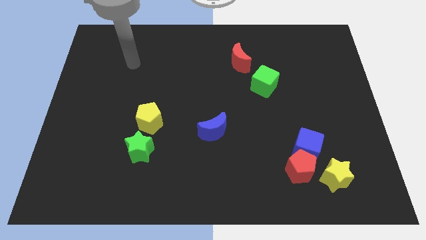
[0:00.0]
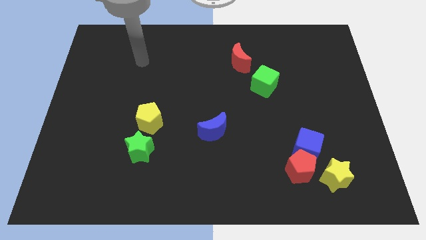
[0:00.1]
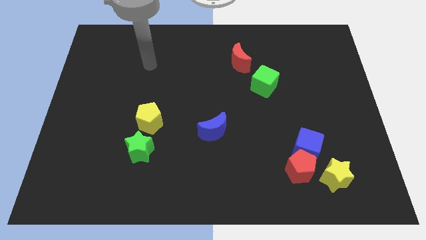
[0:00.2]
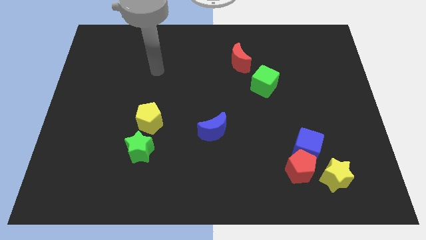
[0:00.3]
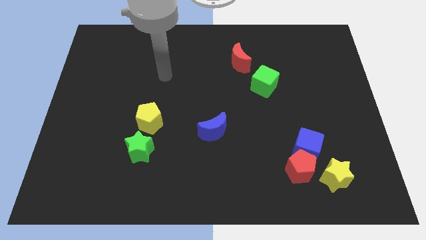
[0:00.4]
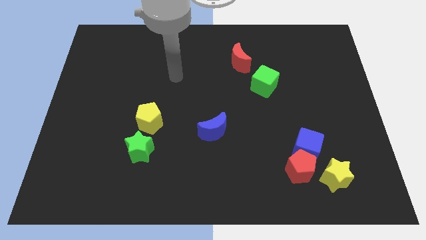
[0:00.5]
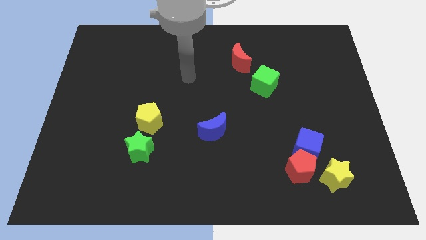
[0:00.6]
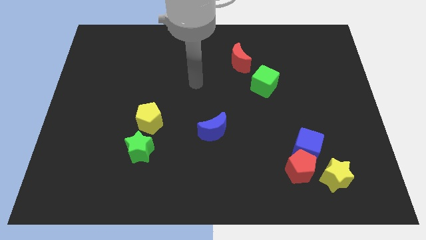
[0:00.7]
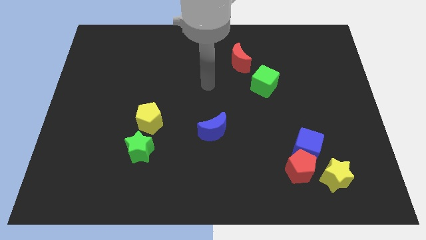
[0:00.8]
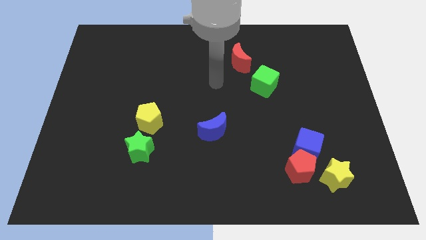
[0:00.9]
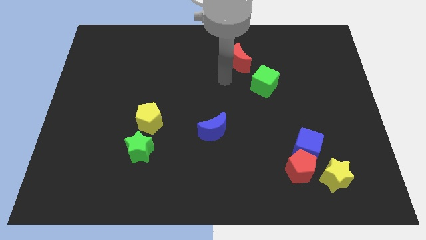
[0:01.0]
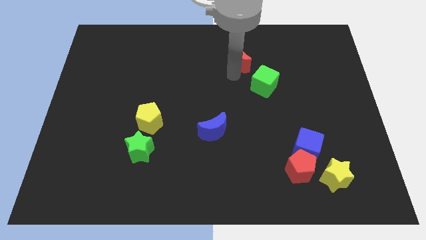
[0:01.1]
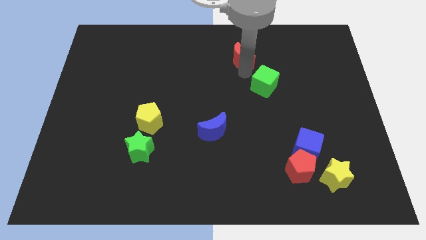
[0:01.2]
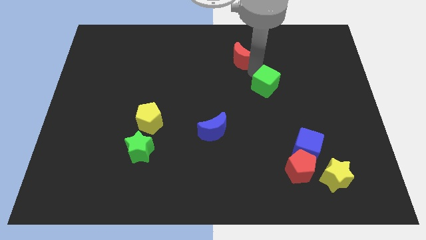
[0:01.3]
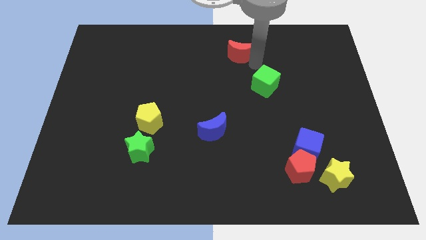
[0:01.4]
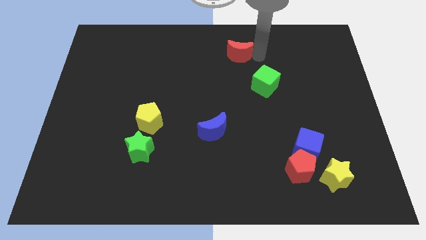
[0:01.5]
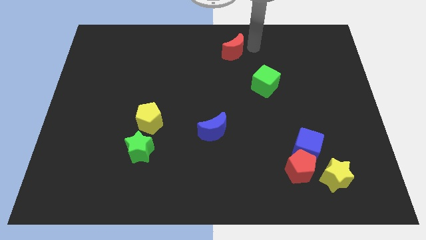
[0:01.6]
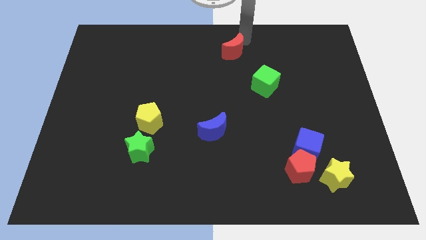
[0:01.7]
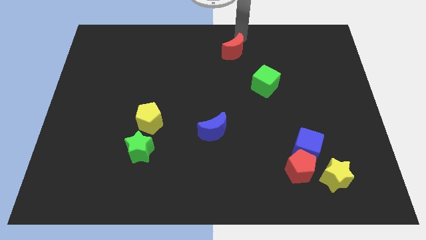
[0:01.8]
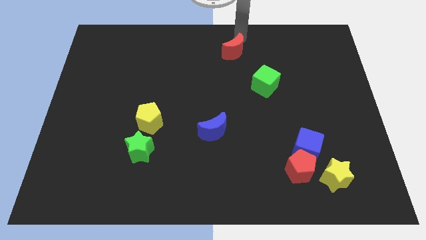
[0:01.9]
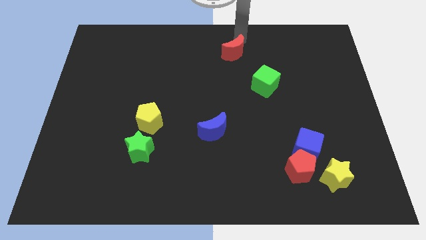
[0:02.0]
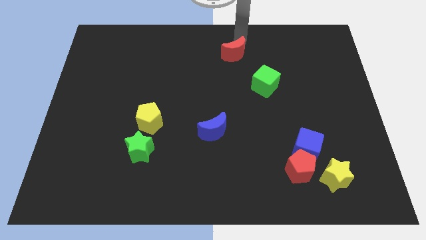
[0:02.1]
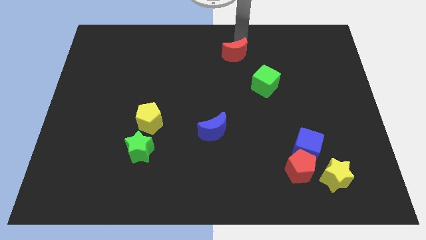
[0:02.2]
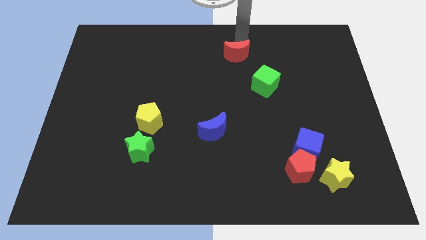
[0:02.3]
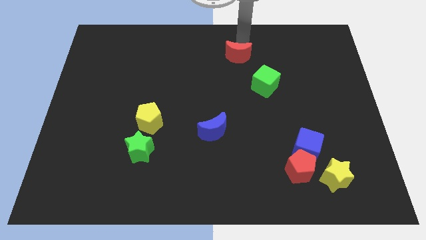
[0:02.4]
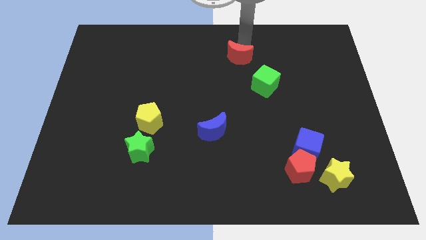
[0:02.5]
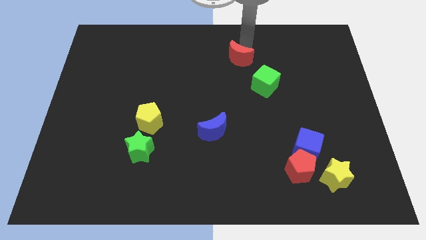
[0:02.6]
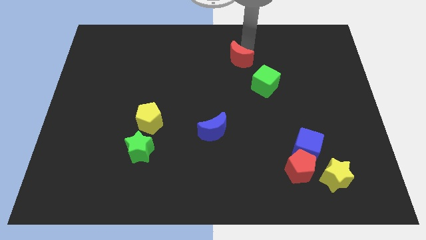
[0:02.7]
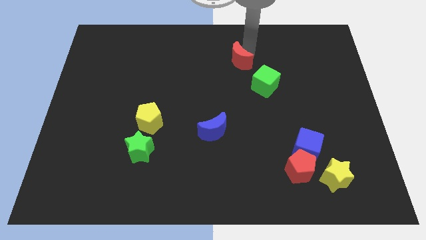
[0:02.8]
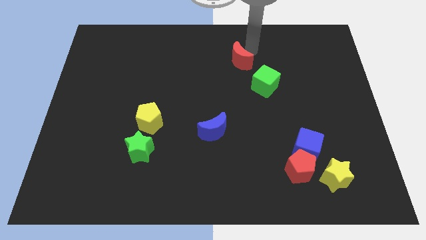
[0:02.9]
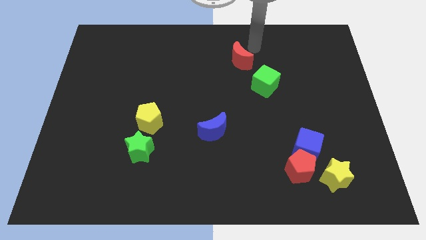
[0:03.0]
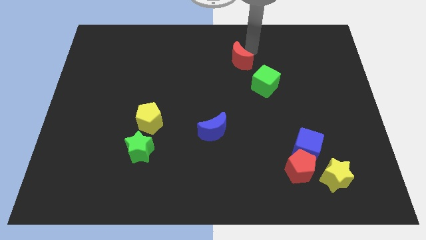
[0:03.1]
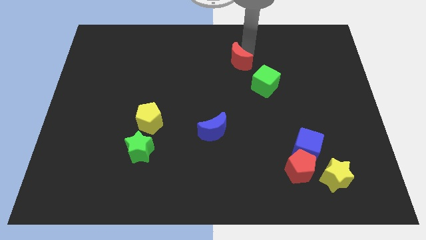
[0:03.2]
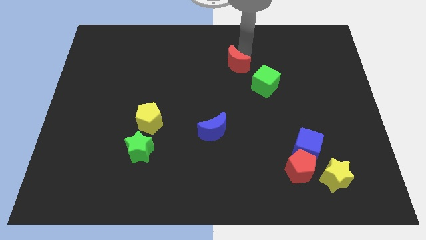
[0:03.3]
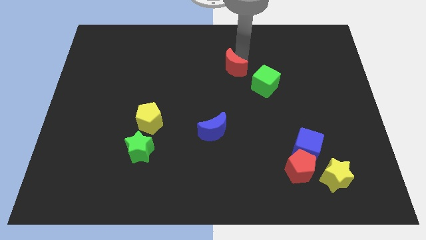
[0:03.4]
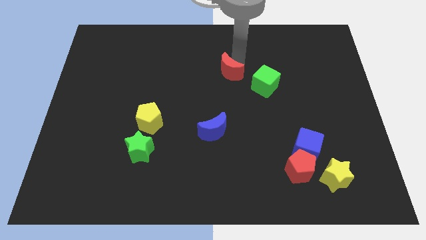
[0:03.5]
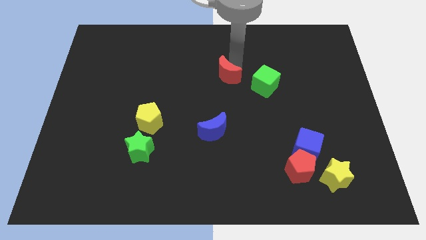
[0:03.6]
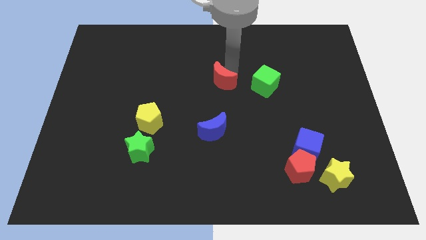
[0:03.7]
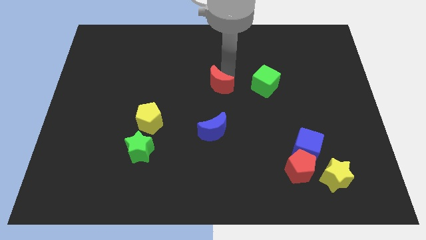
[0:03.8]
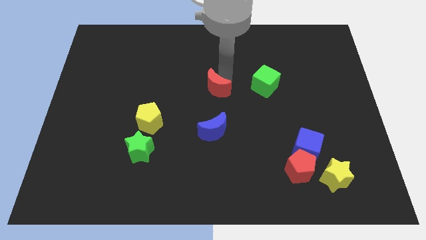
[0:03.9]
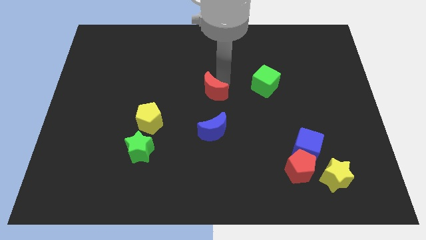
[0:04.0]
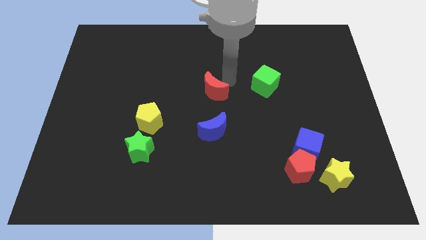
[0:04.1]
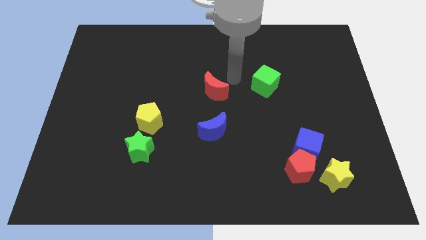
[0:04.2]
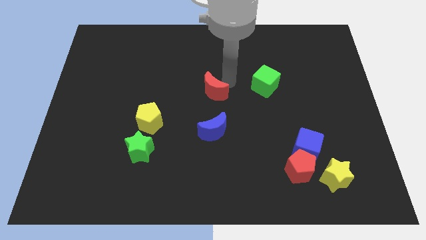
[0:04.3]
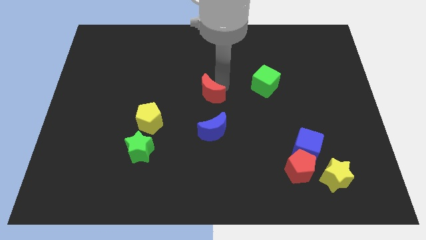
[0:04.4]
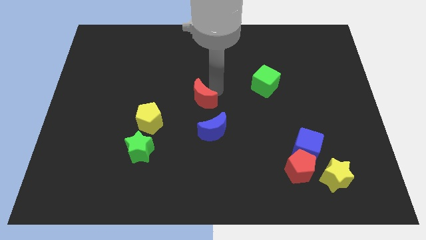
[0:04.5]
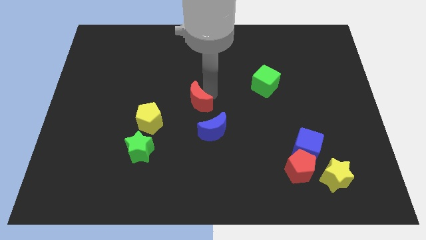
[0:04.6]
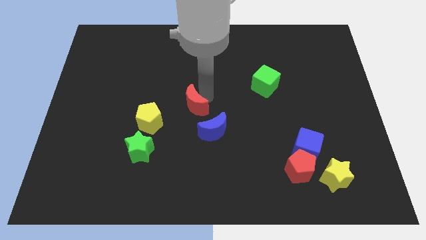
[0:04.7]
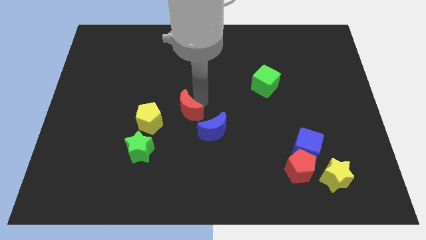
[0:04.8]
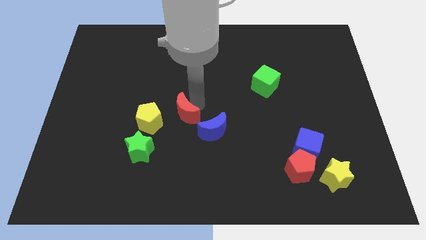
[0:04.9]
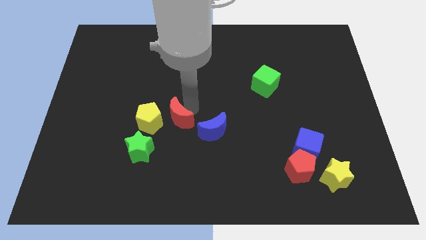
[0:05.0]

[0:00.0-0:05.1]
push the red moon diagonally up and to the right of the green star

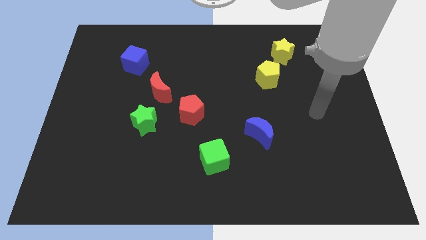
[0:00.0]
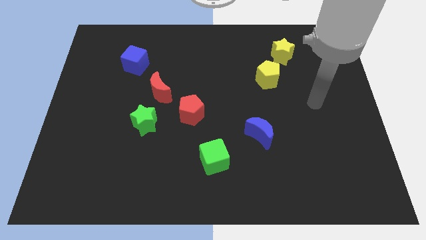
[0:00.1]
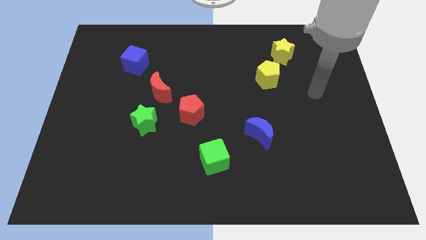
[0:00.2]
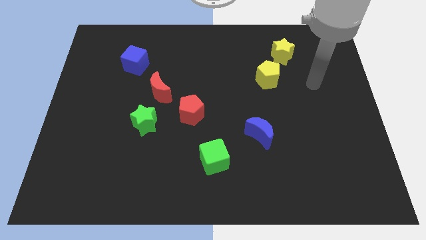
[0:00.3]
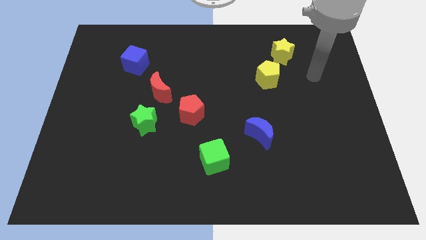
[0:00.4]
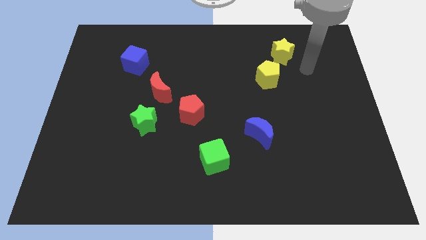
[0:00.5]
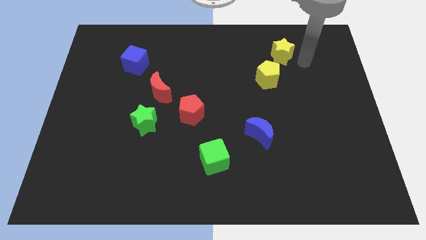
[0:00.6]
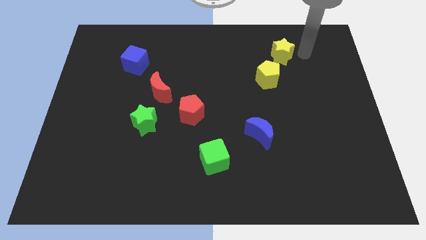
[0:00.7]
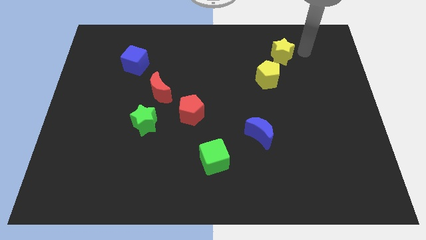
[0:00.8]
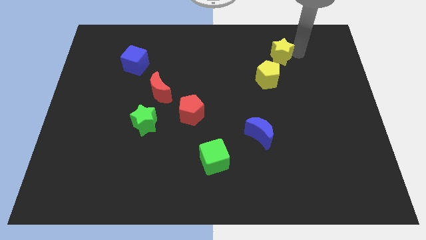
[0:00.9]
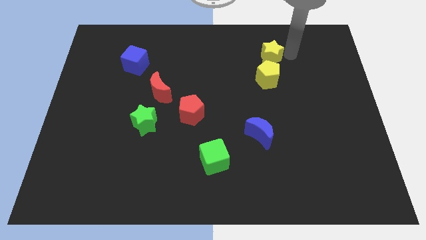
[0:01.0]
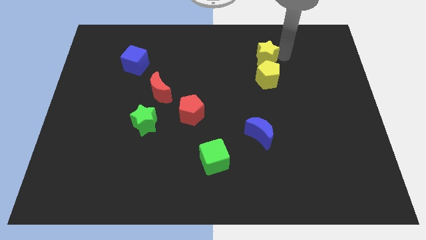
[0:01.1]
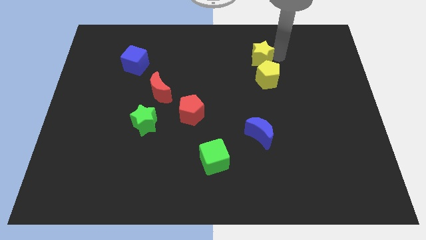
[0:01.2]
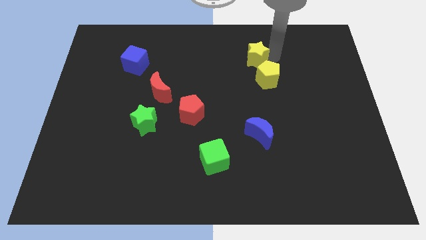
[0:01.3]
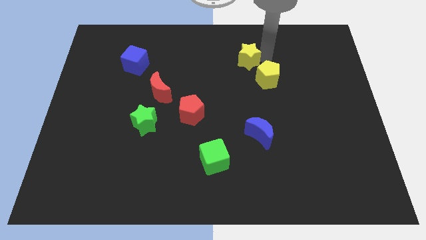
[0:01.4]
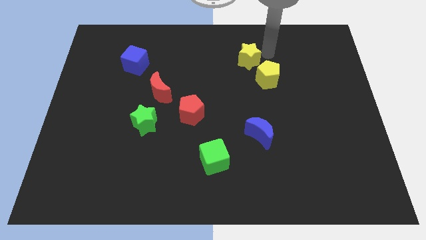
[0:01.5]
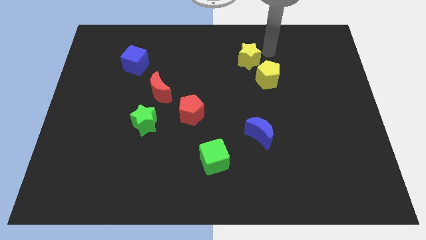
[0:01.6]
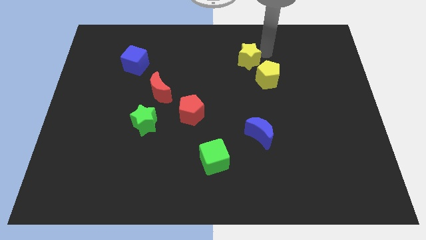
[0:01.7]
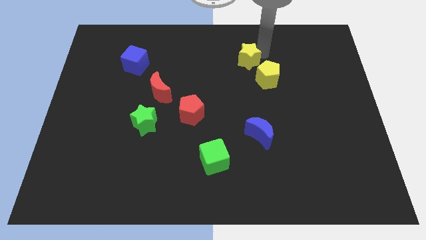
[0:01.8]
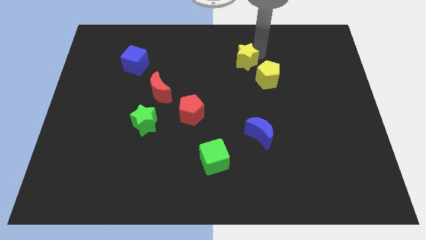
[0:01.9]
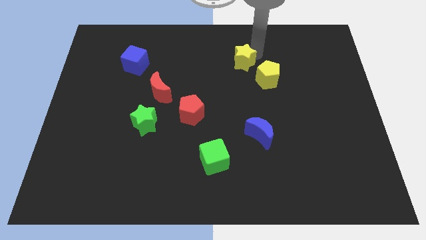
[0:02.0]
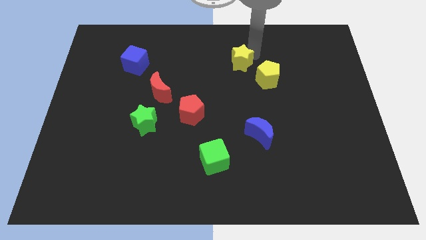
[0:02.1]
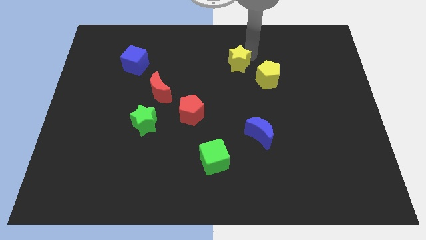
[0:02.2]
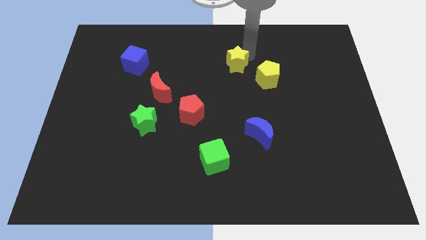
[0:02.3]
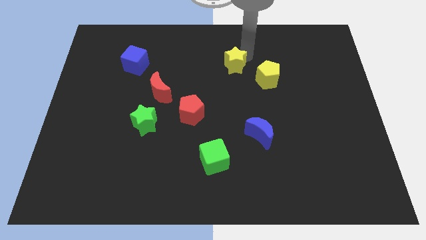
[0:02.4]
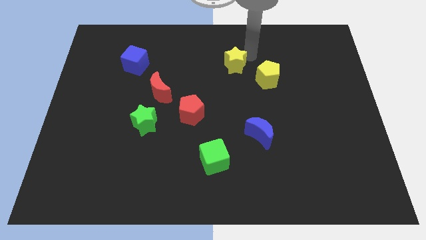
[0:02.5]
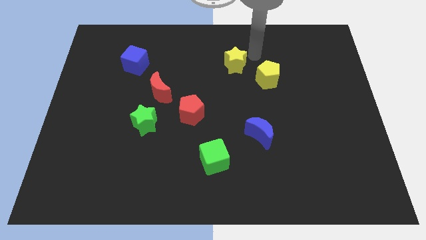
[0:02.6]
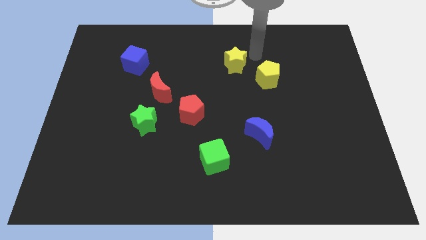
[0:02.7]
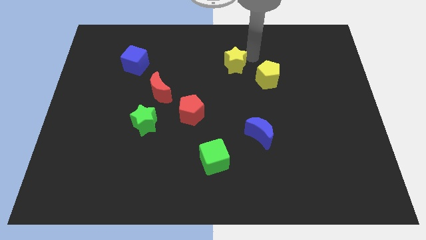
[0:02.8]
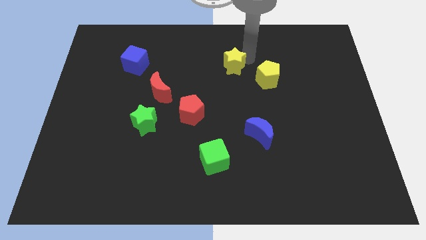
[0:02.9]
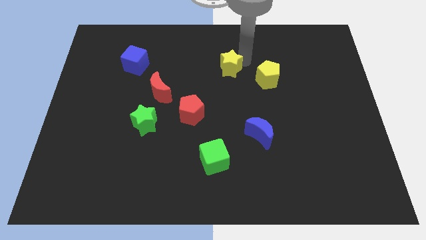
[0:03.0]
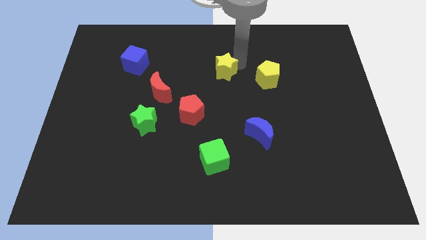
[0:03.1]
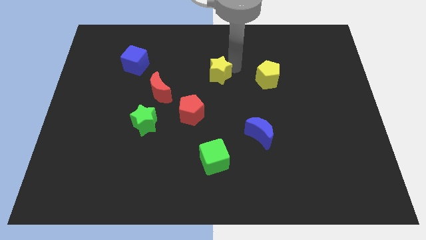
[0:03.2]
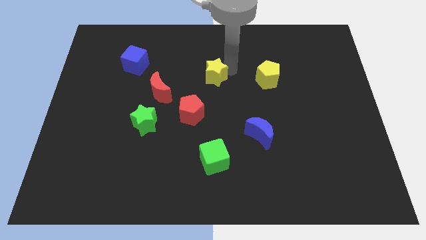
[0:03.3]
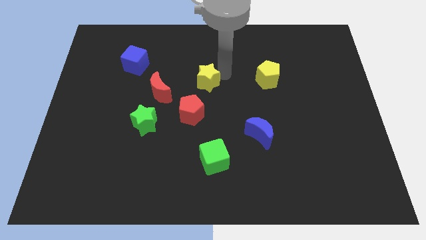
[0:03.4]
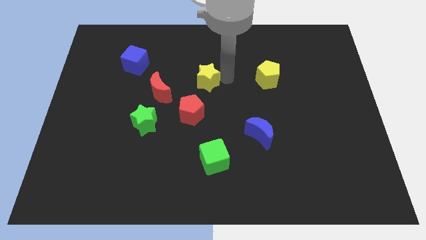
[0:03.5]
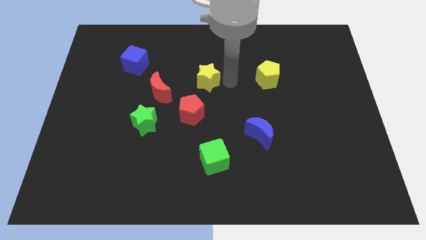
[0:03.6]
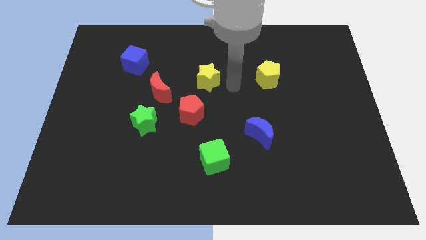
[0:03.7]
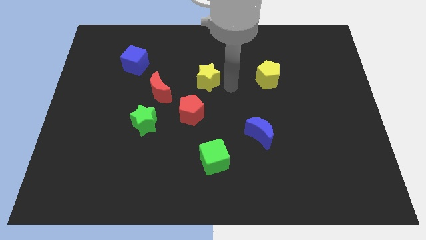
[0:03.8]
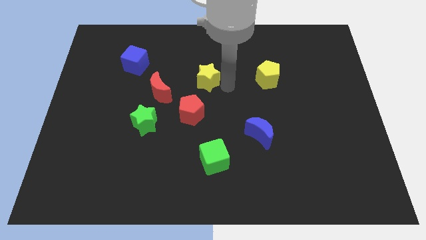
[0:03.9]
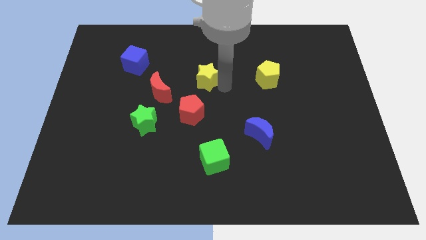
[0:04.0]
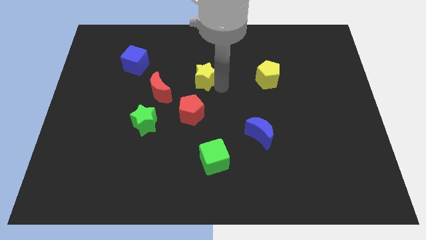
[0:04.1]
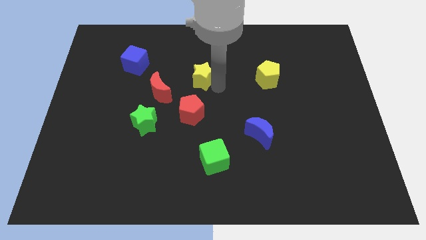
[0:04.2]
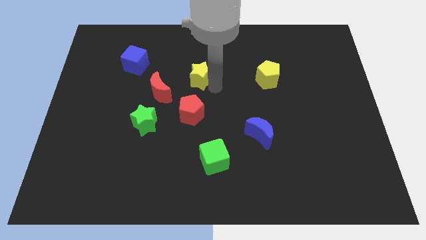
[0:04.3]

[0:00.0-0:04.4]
push the yellow star diagonally up and to the right of the red moon
